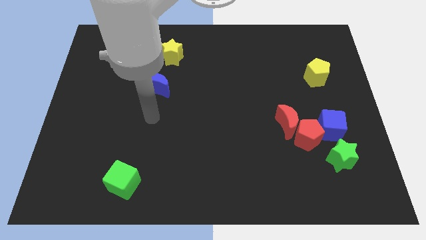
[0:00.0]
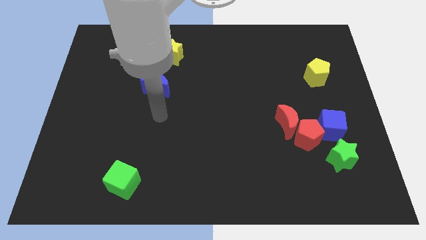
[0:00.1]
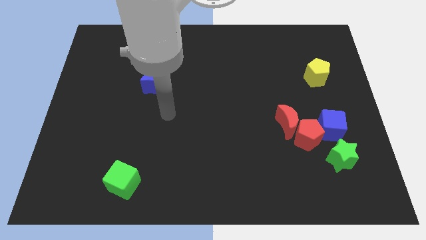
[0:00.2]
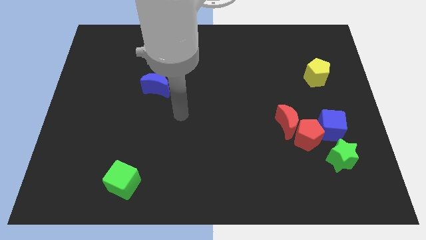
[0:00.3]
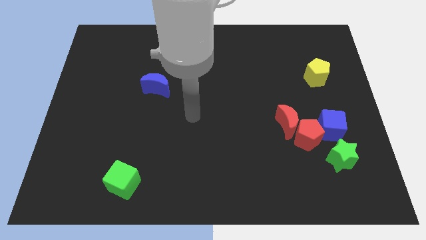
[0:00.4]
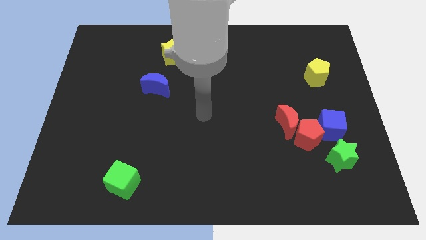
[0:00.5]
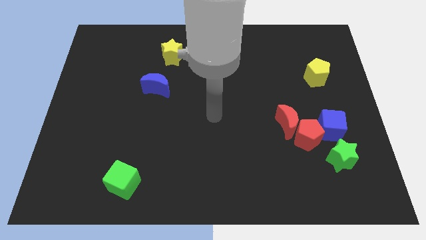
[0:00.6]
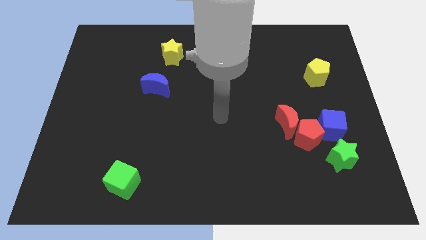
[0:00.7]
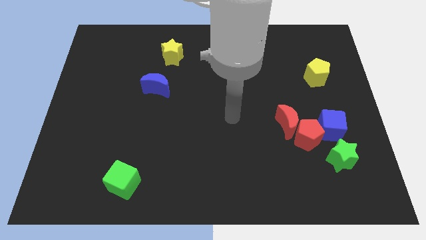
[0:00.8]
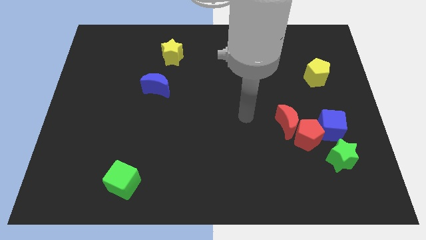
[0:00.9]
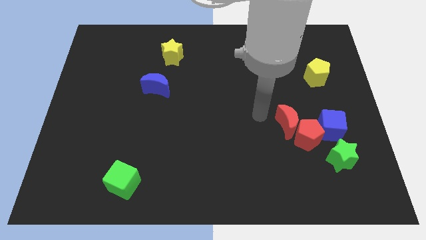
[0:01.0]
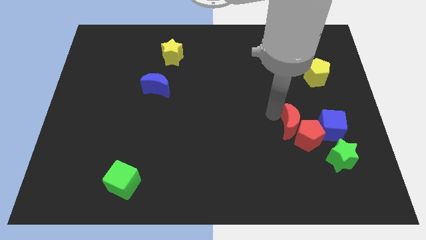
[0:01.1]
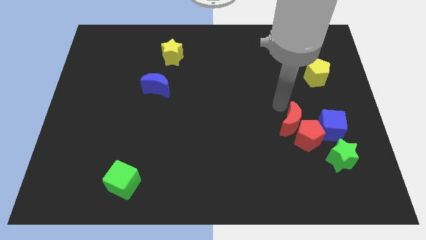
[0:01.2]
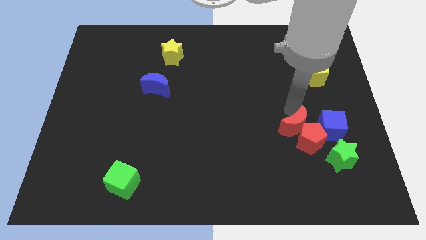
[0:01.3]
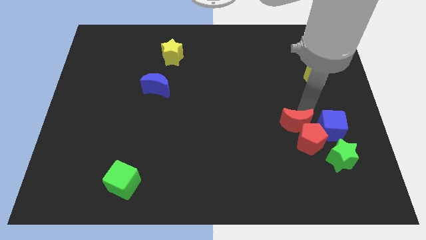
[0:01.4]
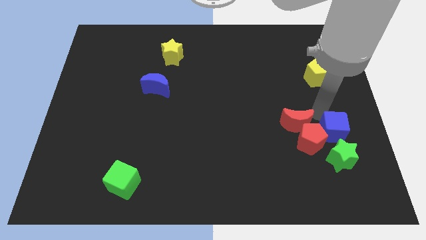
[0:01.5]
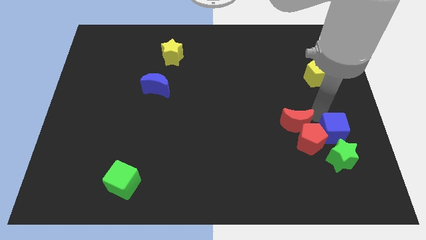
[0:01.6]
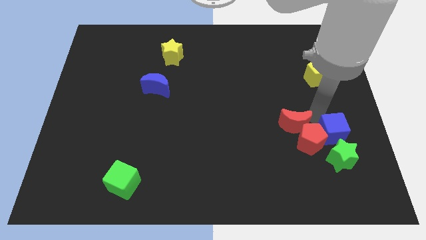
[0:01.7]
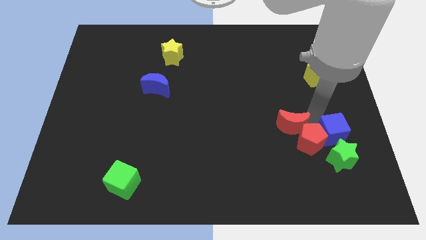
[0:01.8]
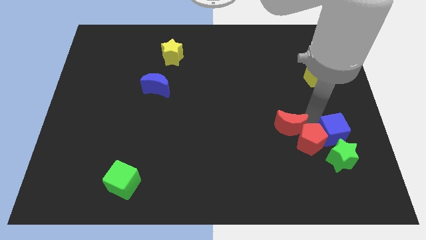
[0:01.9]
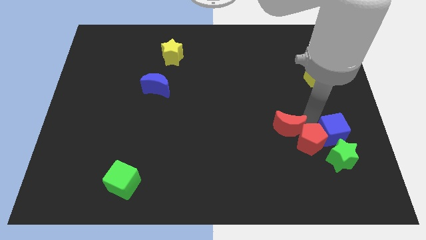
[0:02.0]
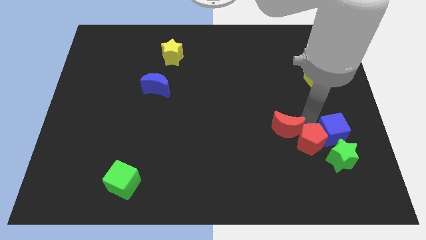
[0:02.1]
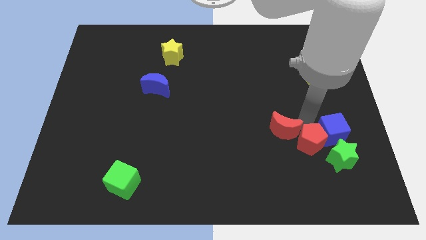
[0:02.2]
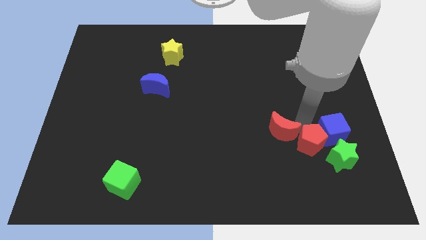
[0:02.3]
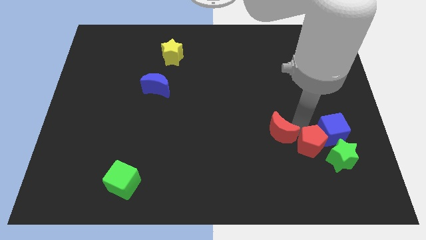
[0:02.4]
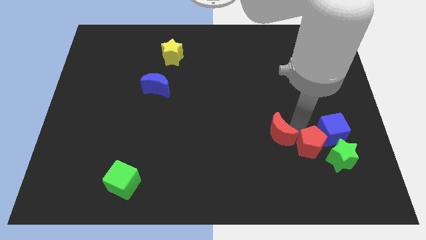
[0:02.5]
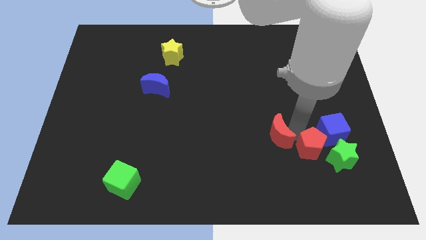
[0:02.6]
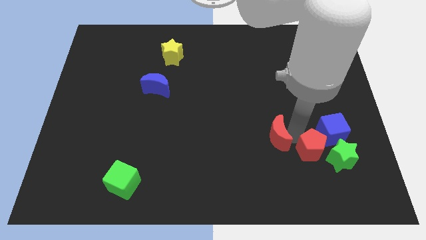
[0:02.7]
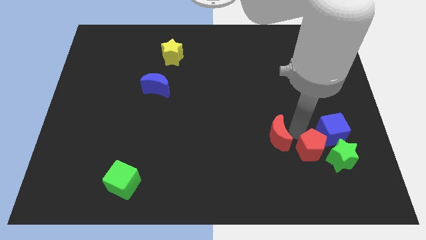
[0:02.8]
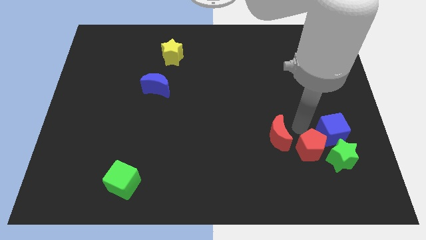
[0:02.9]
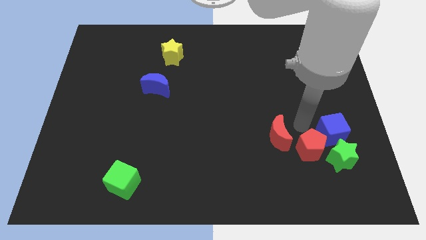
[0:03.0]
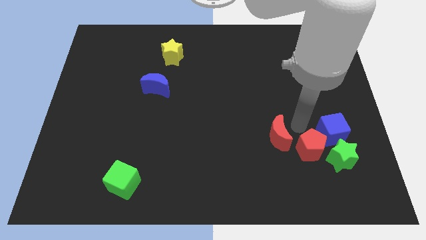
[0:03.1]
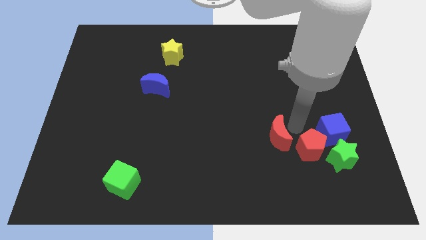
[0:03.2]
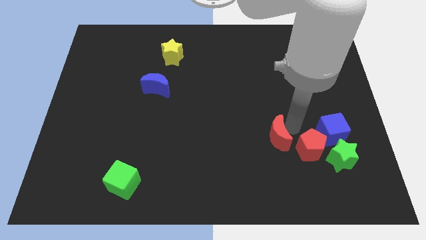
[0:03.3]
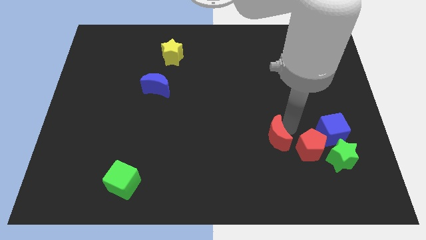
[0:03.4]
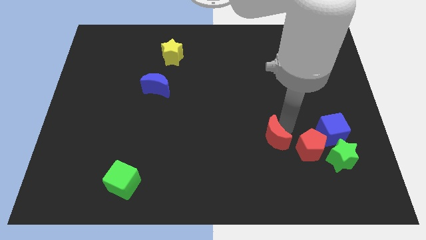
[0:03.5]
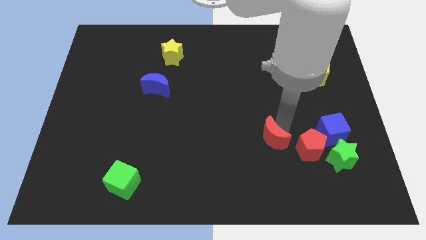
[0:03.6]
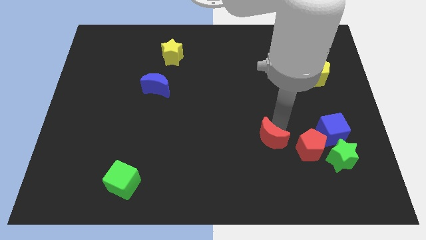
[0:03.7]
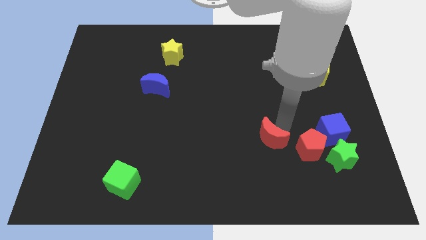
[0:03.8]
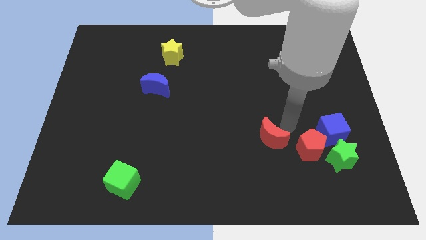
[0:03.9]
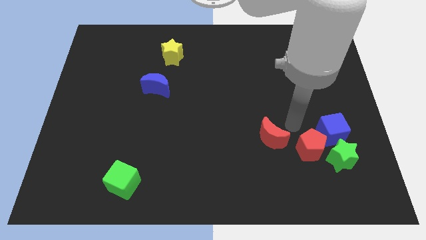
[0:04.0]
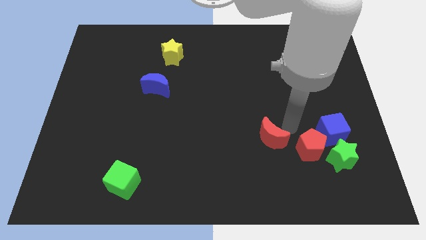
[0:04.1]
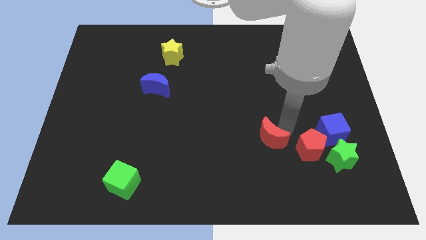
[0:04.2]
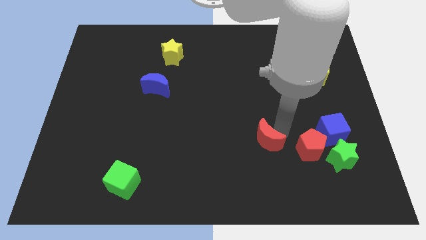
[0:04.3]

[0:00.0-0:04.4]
slightly push the red moon down and to the left

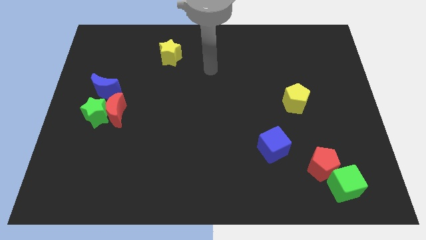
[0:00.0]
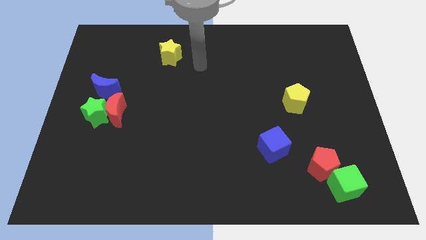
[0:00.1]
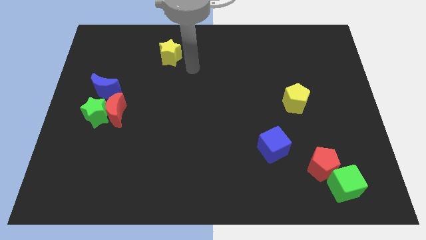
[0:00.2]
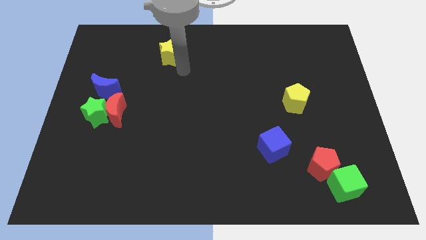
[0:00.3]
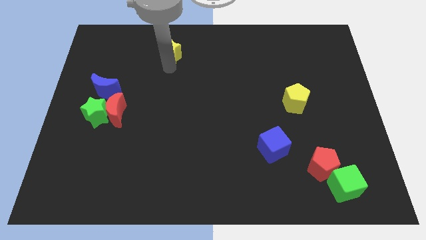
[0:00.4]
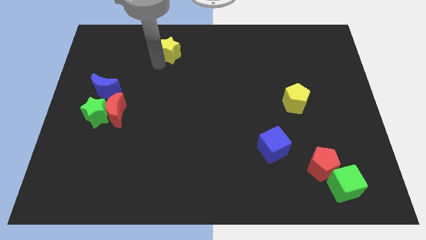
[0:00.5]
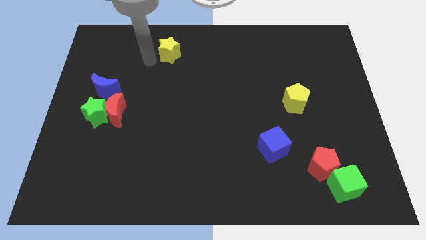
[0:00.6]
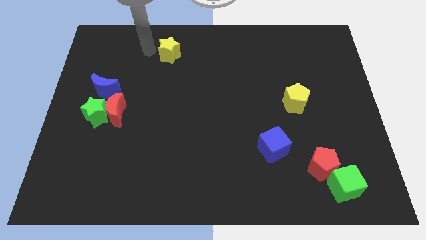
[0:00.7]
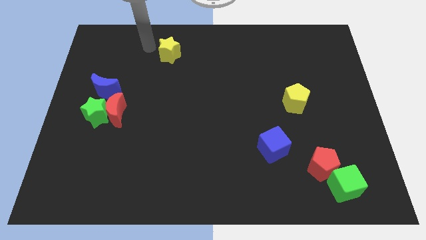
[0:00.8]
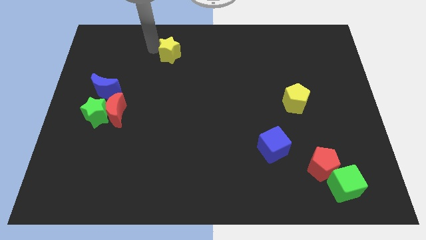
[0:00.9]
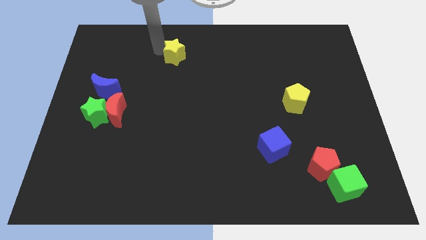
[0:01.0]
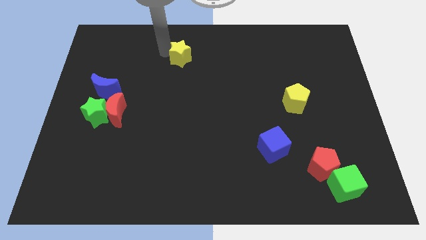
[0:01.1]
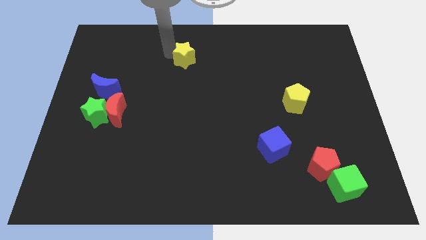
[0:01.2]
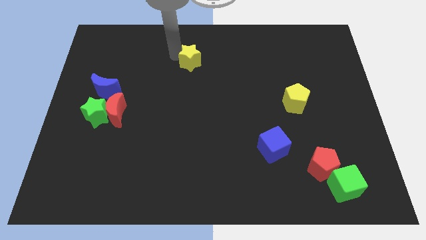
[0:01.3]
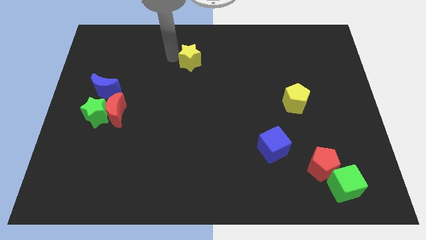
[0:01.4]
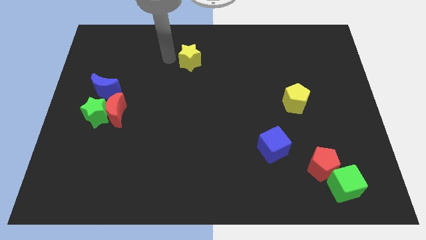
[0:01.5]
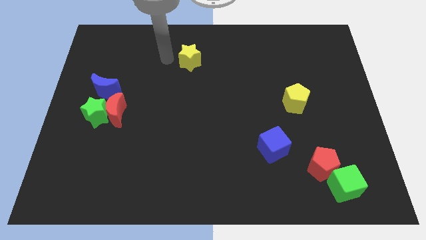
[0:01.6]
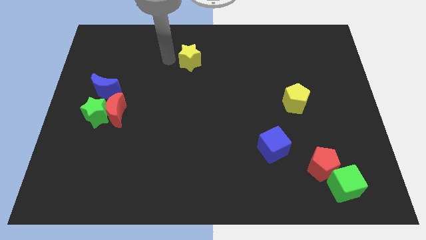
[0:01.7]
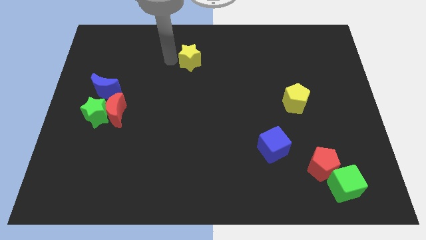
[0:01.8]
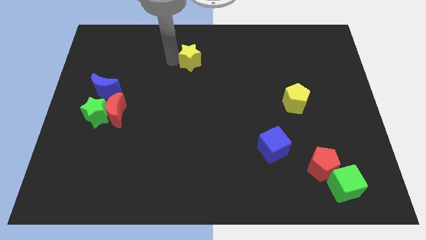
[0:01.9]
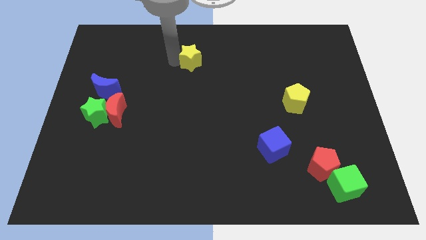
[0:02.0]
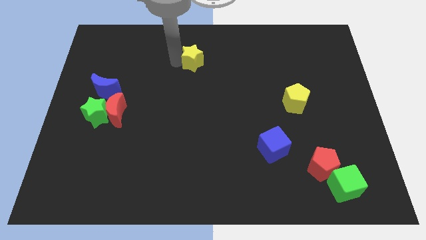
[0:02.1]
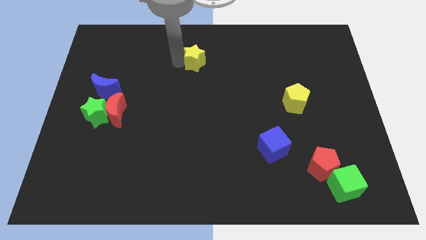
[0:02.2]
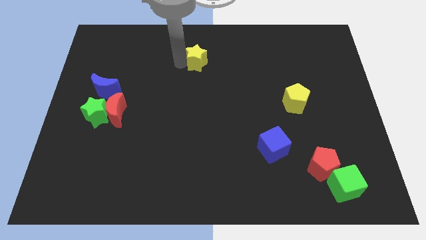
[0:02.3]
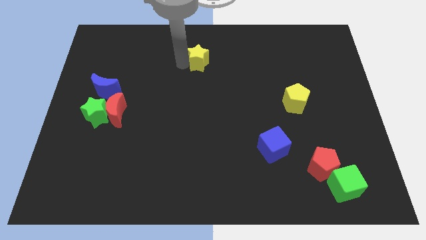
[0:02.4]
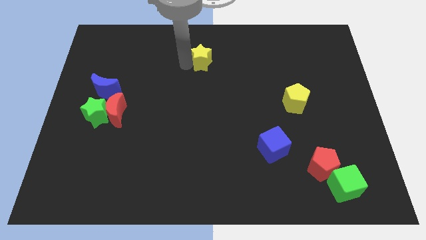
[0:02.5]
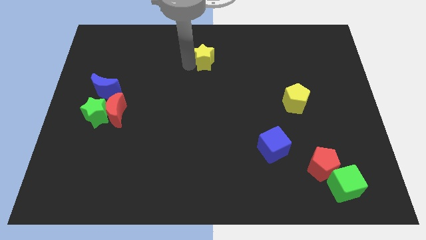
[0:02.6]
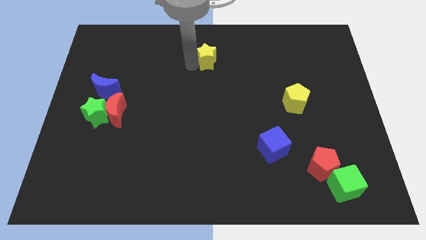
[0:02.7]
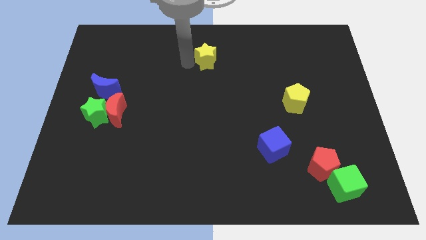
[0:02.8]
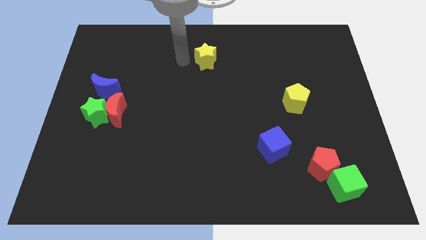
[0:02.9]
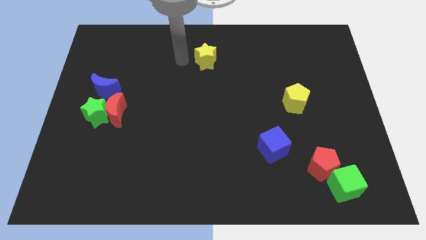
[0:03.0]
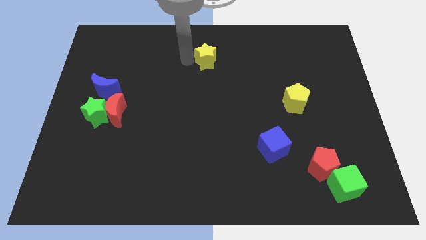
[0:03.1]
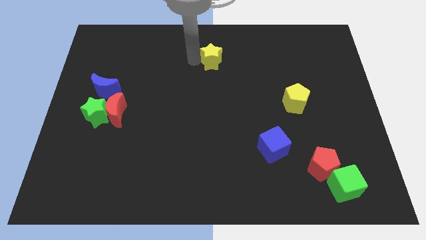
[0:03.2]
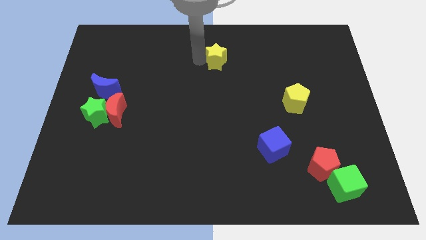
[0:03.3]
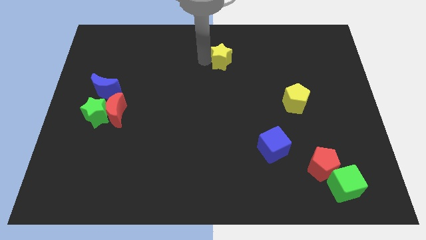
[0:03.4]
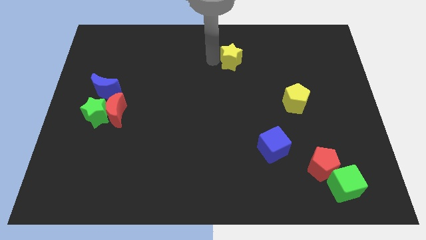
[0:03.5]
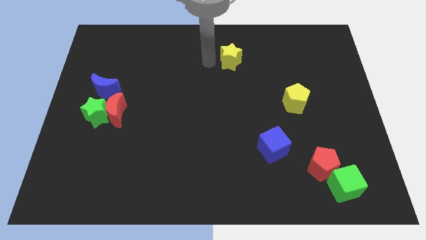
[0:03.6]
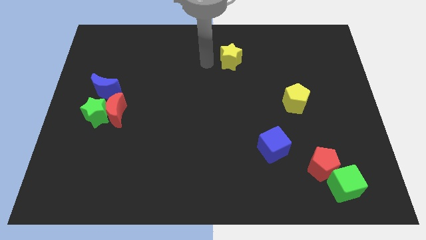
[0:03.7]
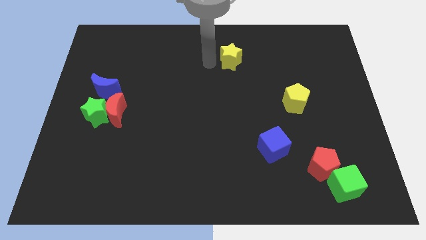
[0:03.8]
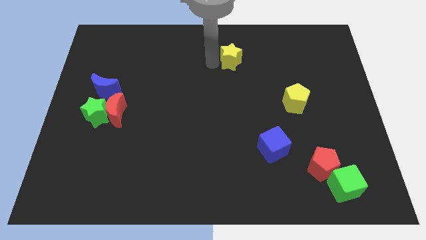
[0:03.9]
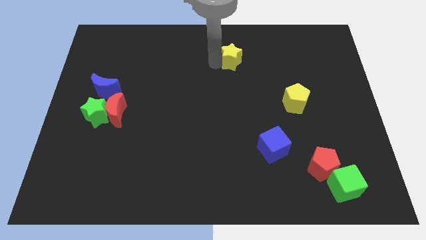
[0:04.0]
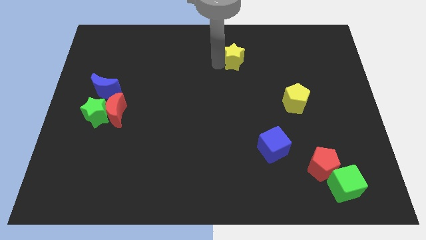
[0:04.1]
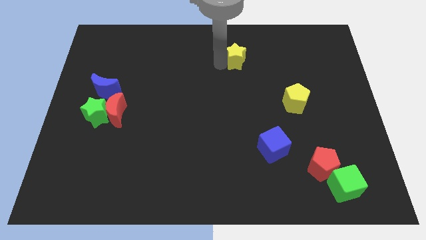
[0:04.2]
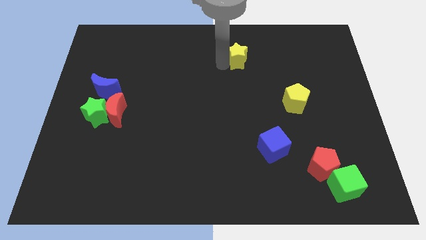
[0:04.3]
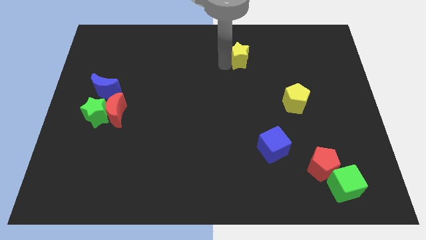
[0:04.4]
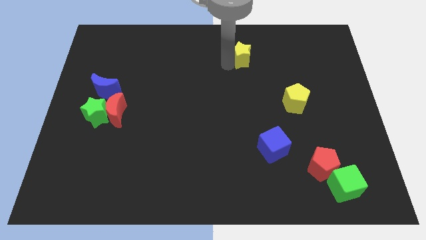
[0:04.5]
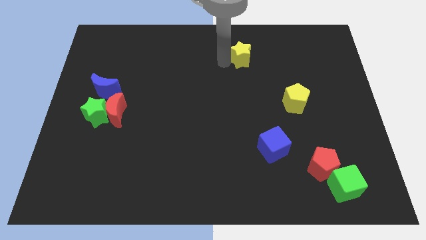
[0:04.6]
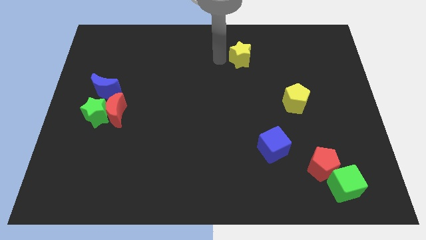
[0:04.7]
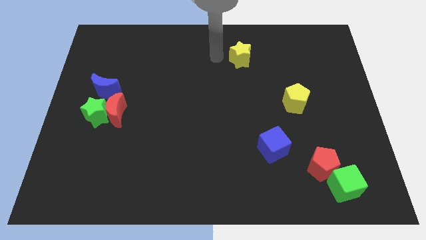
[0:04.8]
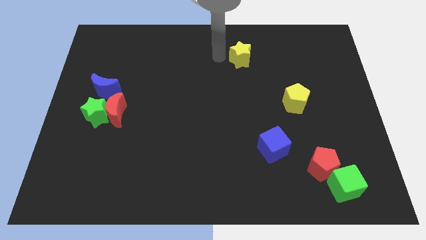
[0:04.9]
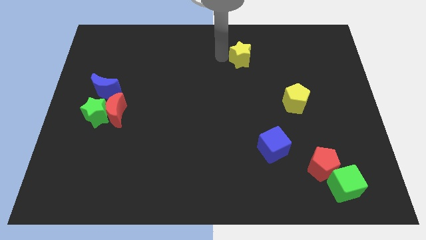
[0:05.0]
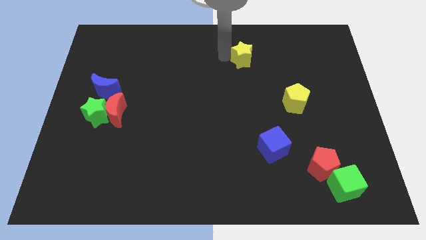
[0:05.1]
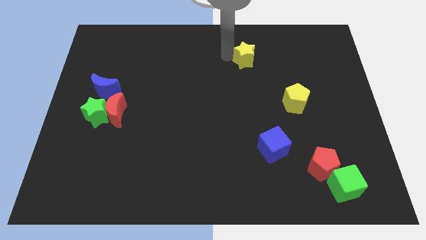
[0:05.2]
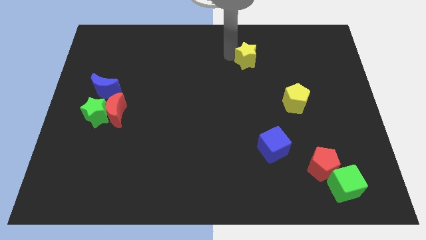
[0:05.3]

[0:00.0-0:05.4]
move the yellow star right
